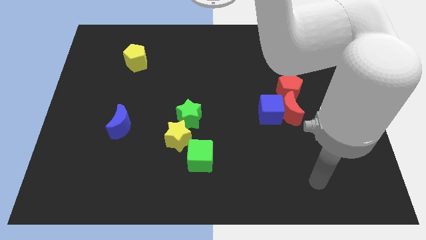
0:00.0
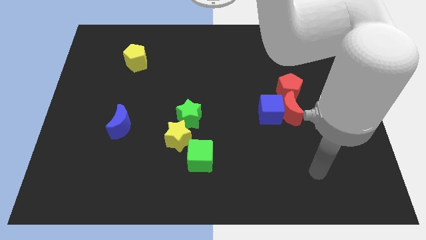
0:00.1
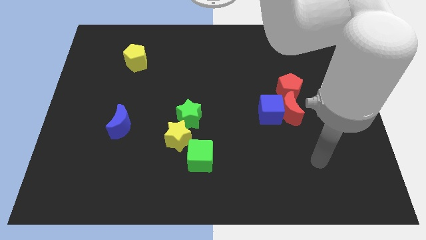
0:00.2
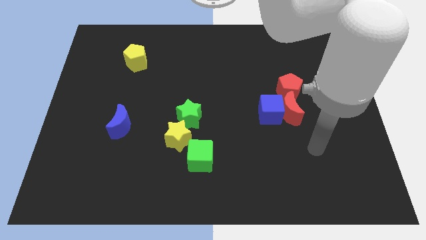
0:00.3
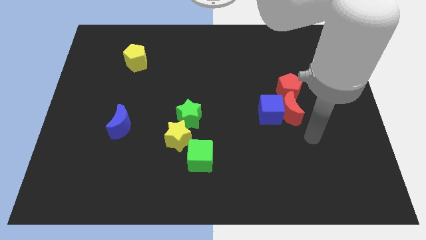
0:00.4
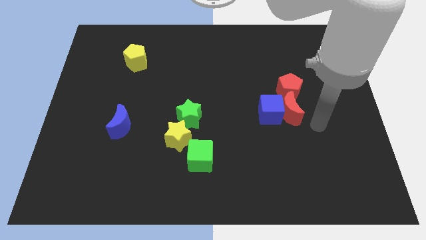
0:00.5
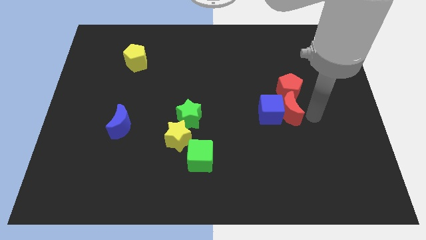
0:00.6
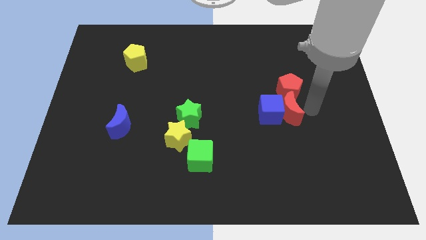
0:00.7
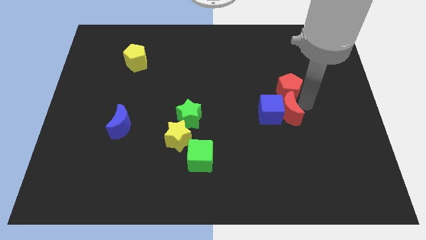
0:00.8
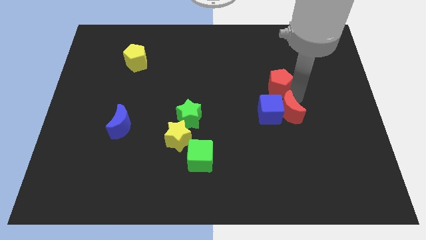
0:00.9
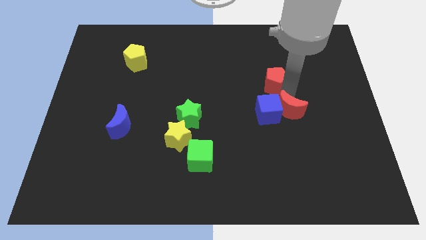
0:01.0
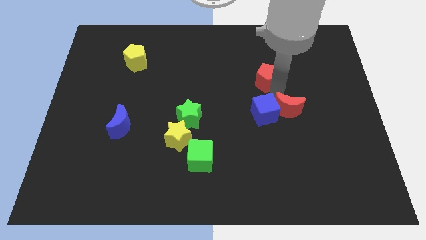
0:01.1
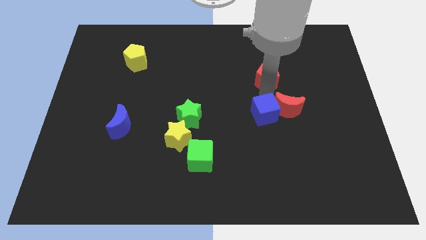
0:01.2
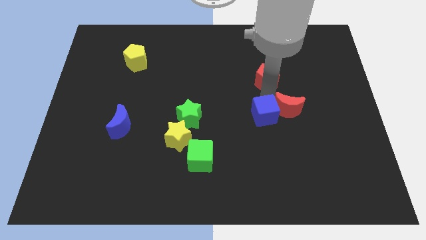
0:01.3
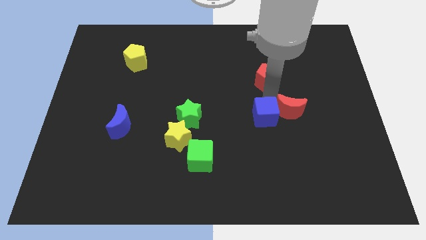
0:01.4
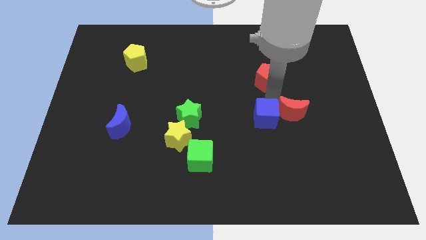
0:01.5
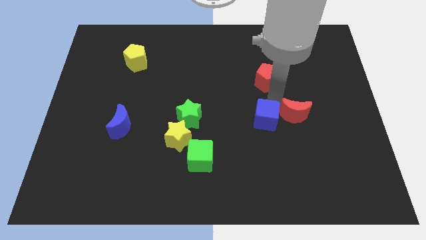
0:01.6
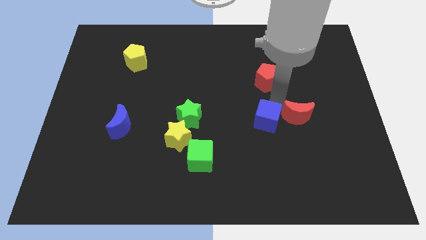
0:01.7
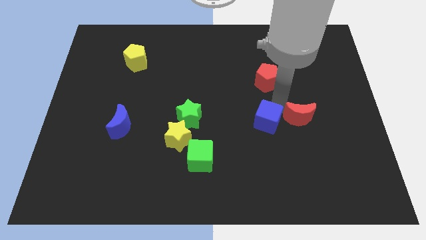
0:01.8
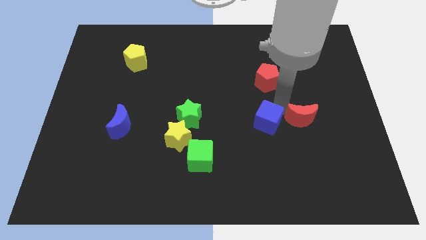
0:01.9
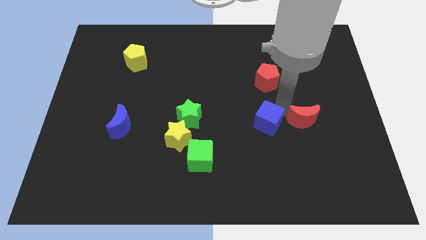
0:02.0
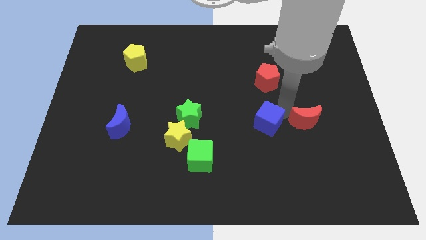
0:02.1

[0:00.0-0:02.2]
pull the red moon apart from the blue cube and red pentagon

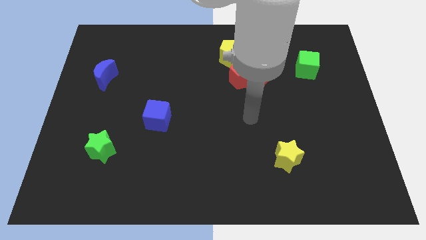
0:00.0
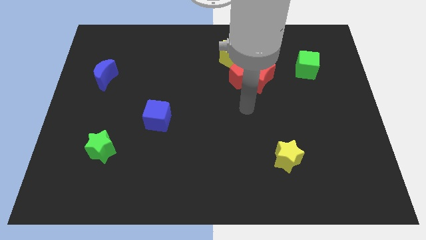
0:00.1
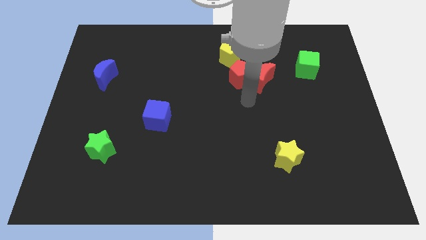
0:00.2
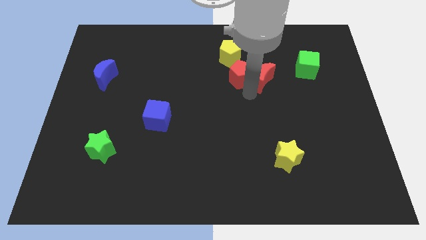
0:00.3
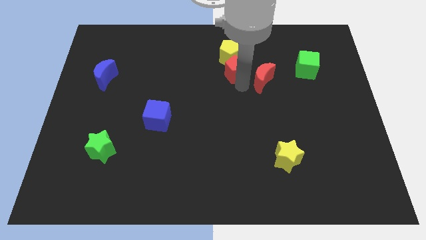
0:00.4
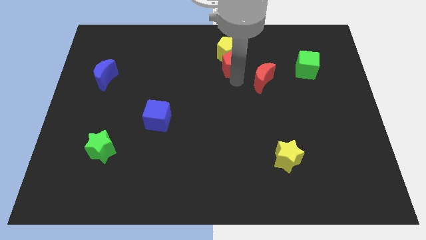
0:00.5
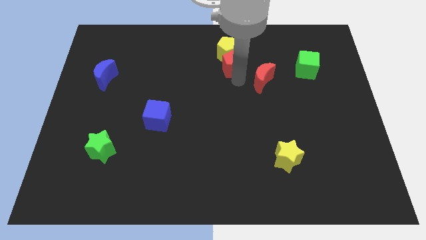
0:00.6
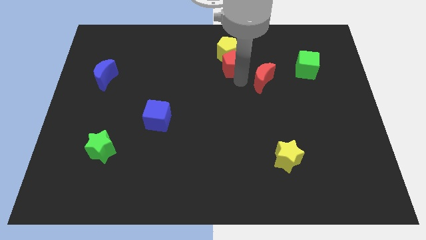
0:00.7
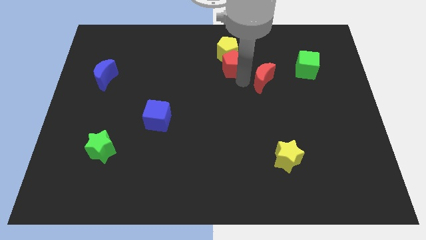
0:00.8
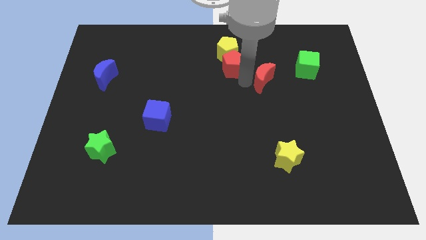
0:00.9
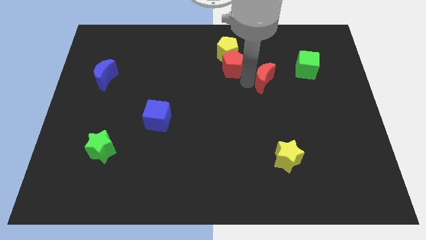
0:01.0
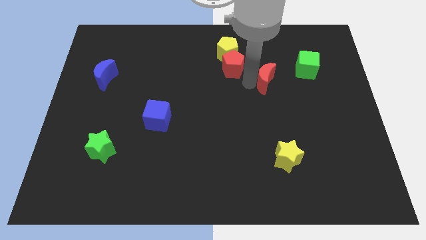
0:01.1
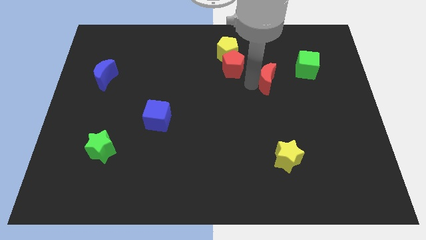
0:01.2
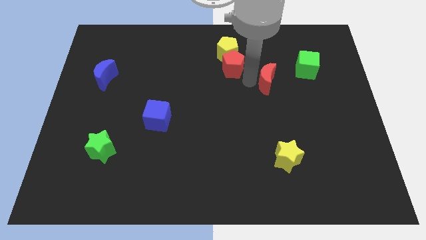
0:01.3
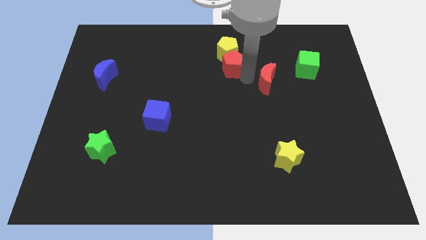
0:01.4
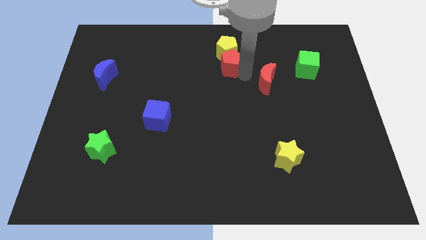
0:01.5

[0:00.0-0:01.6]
move the red moon away from the red pentagon

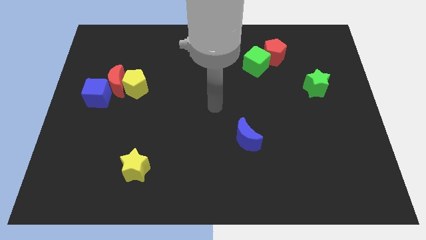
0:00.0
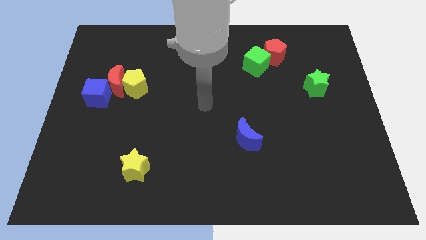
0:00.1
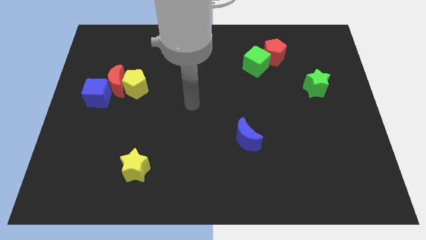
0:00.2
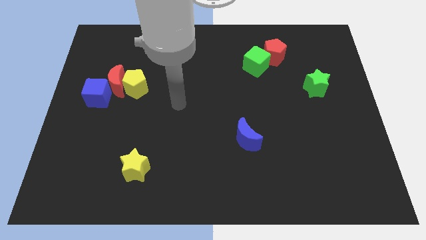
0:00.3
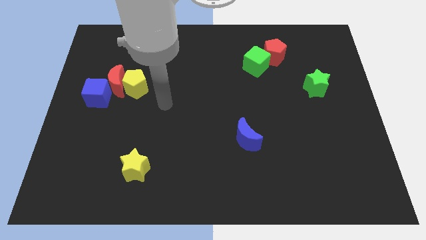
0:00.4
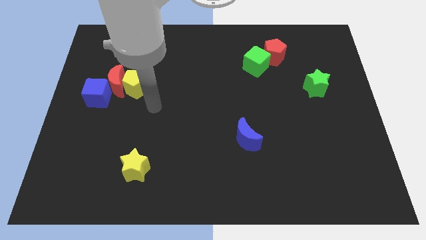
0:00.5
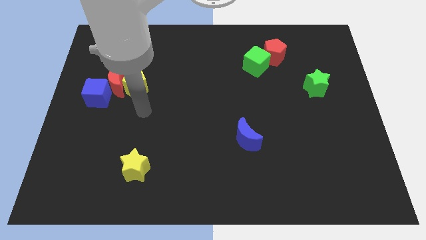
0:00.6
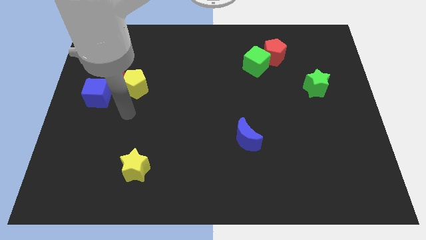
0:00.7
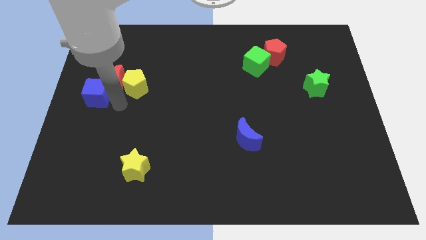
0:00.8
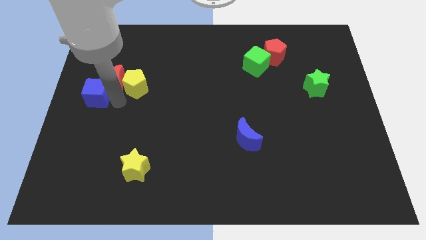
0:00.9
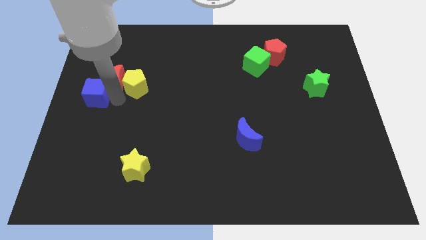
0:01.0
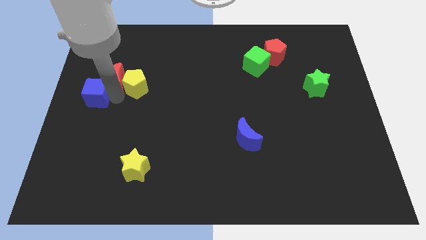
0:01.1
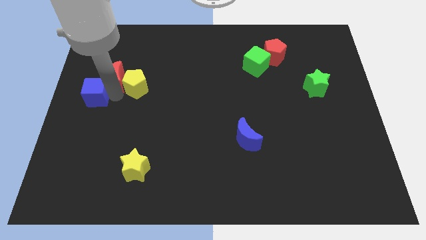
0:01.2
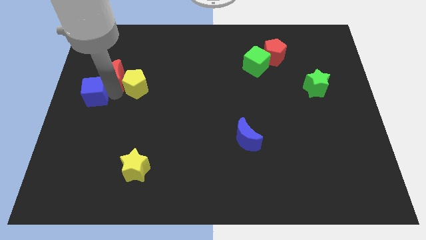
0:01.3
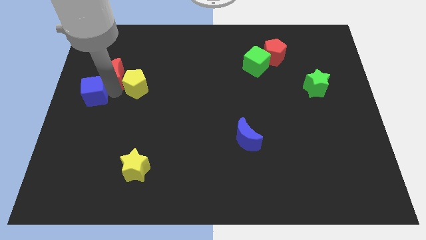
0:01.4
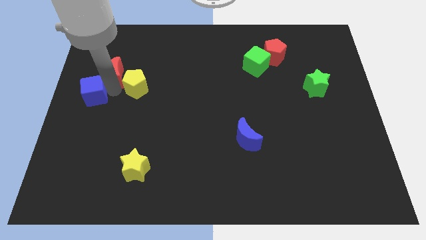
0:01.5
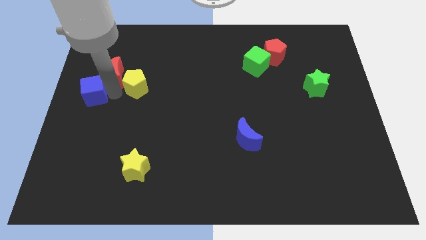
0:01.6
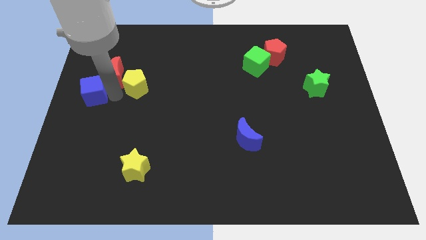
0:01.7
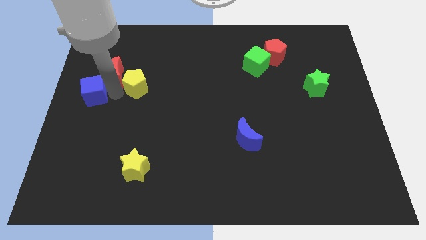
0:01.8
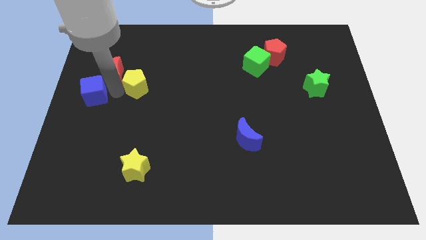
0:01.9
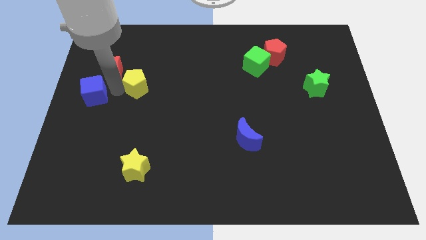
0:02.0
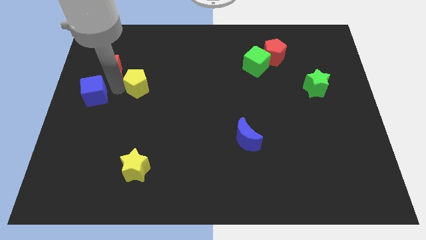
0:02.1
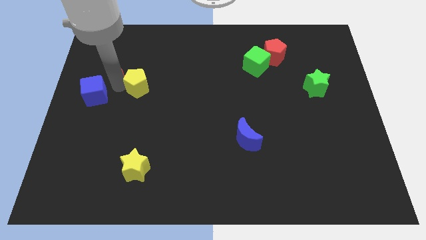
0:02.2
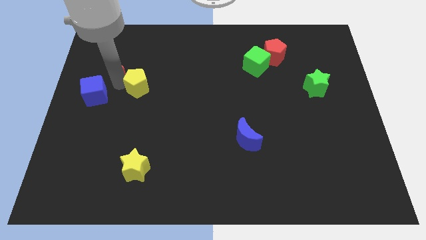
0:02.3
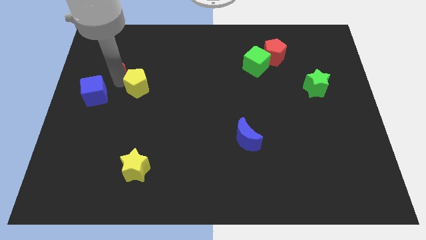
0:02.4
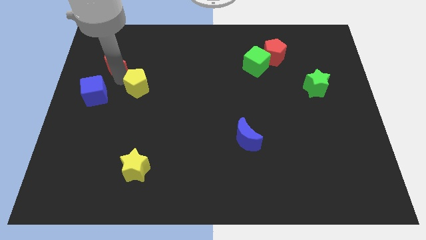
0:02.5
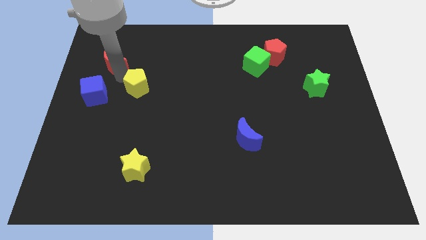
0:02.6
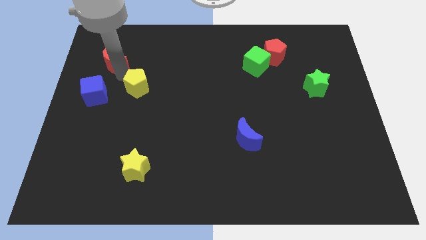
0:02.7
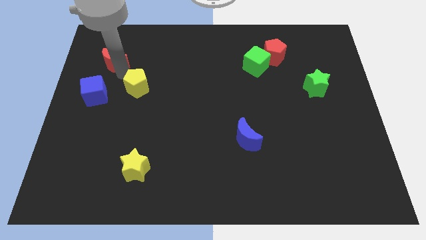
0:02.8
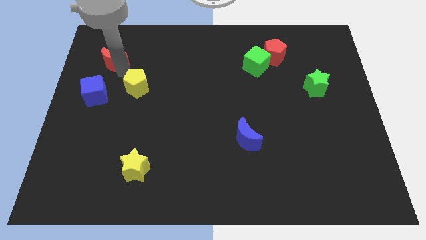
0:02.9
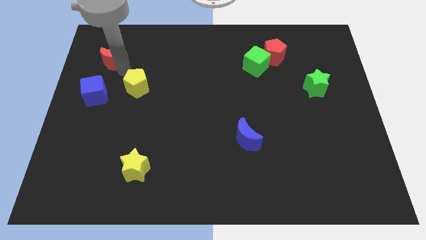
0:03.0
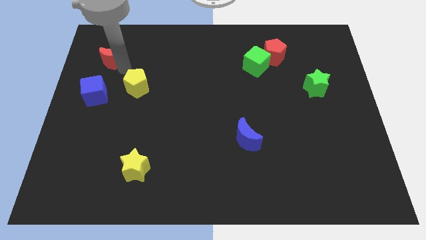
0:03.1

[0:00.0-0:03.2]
separate the red moon from the yellow pentagon and blue cube

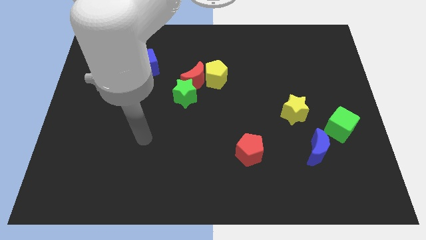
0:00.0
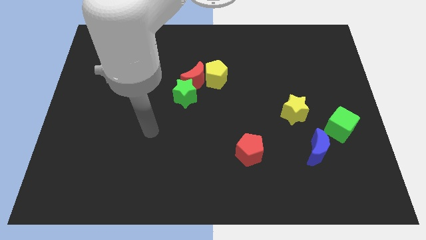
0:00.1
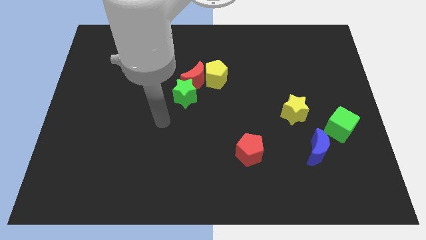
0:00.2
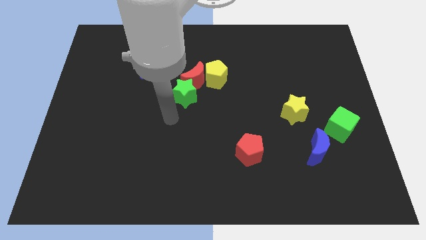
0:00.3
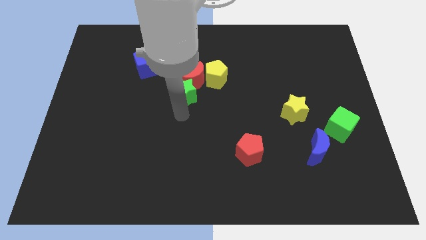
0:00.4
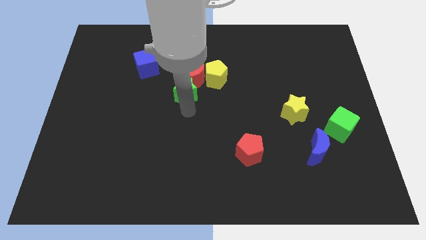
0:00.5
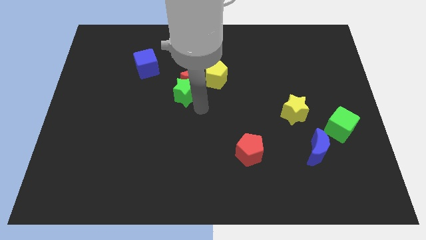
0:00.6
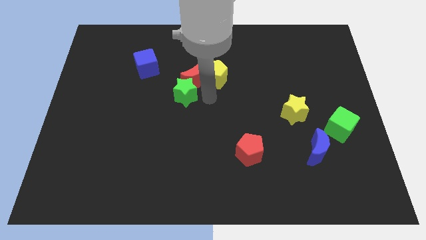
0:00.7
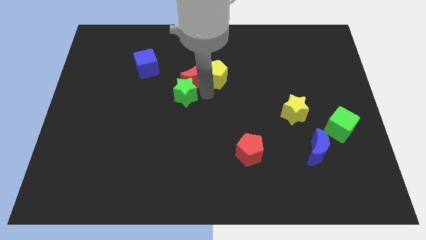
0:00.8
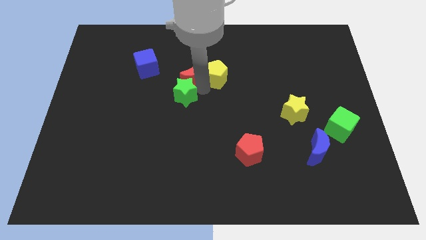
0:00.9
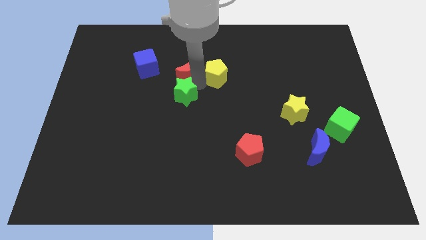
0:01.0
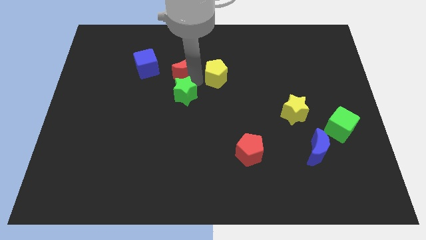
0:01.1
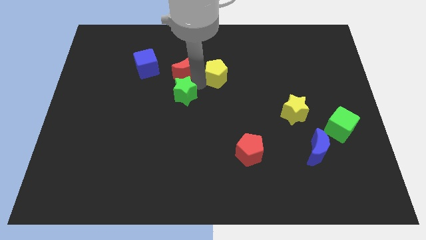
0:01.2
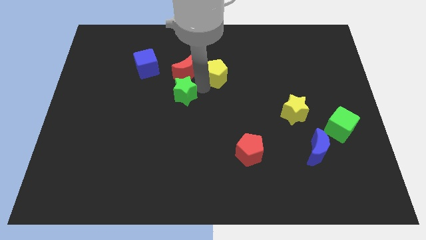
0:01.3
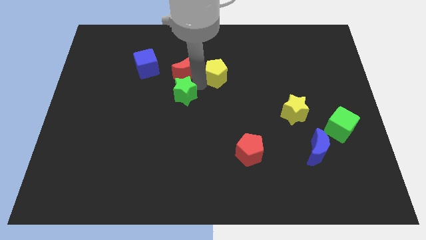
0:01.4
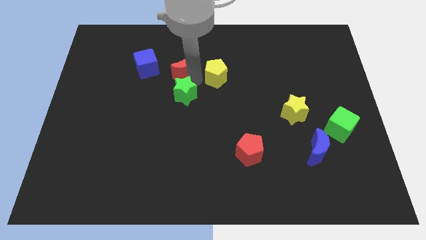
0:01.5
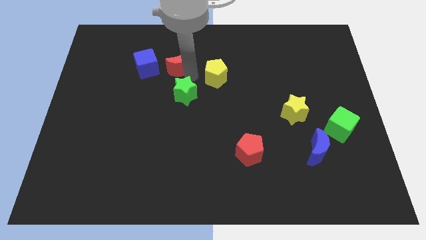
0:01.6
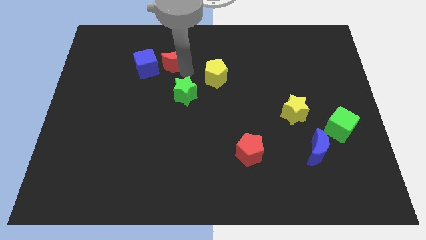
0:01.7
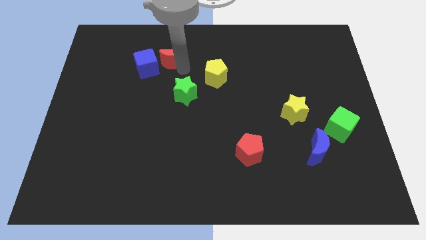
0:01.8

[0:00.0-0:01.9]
pull the red moon apart from the yellow pentagon and green star

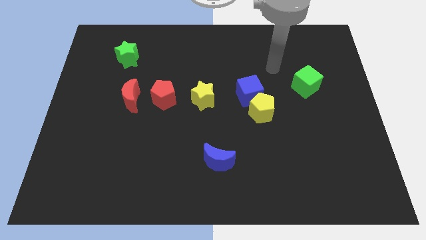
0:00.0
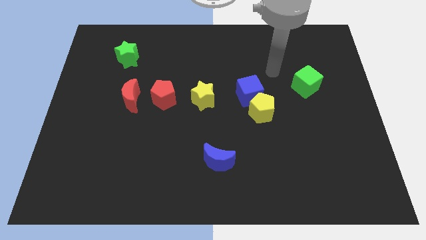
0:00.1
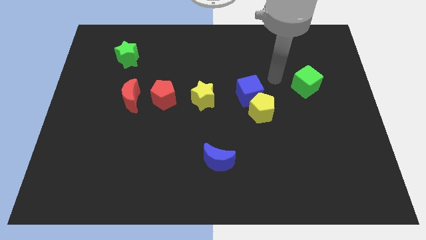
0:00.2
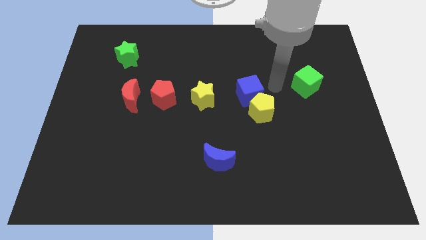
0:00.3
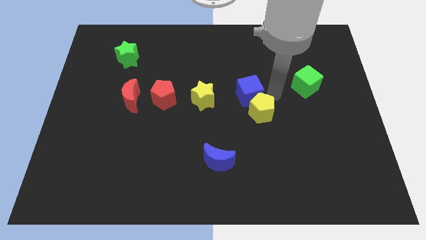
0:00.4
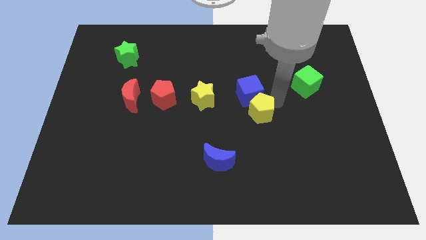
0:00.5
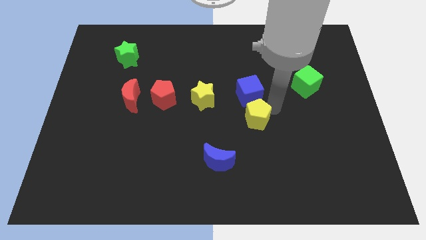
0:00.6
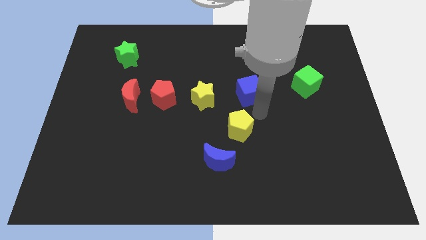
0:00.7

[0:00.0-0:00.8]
move the blue cube away from the yellow pentagon
